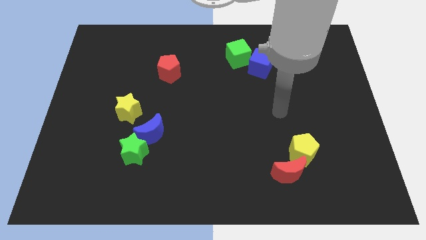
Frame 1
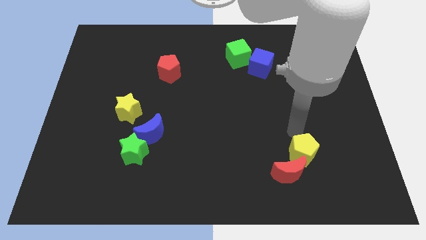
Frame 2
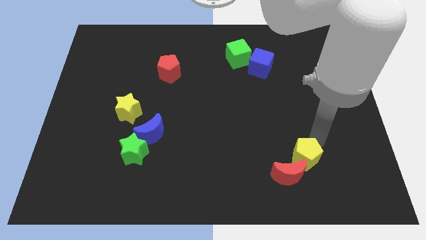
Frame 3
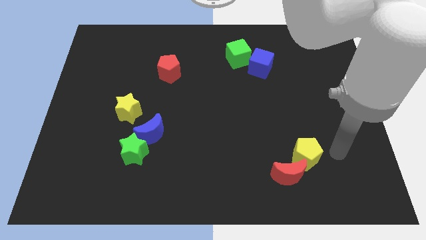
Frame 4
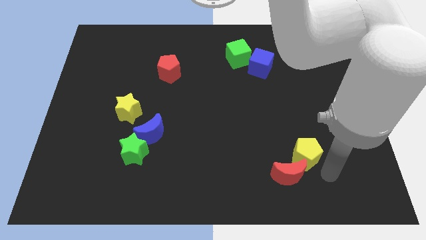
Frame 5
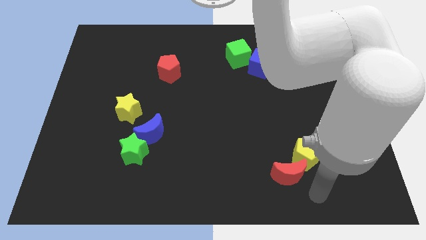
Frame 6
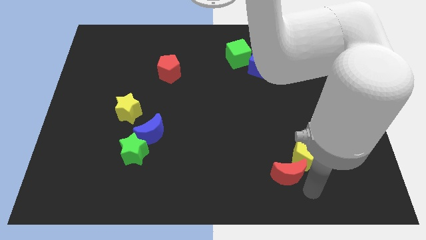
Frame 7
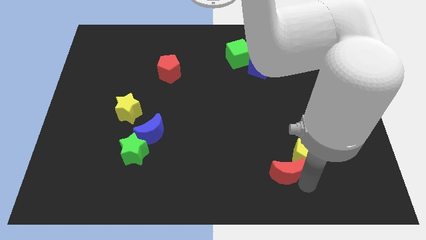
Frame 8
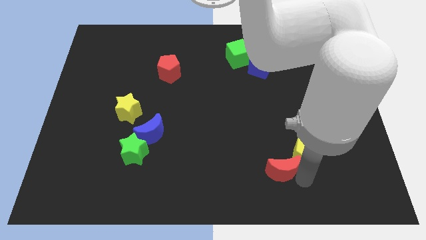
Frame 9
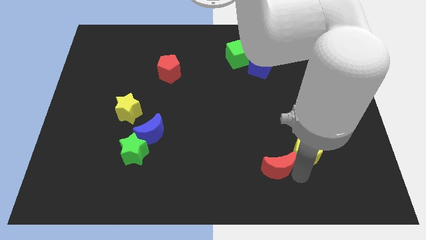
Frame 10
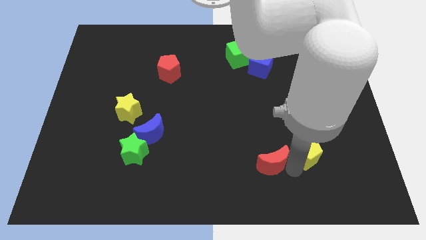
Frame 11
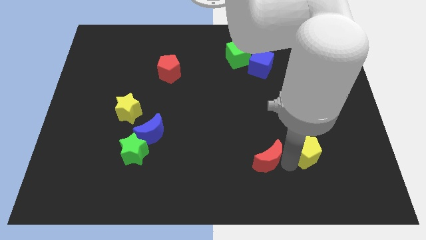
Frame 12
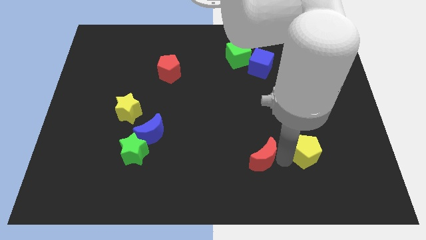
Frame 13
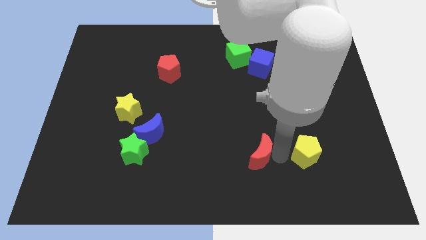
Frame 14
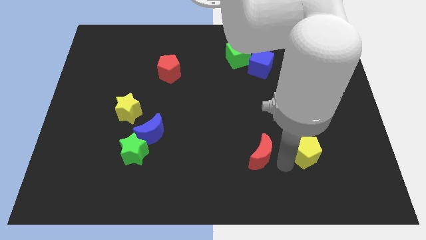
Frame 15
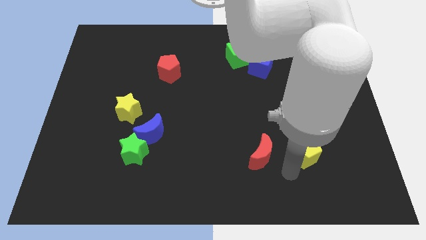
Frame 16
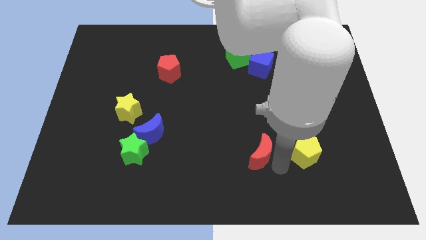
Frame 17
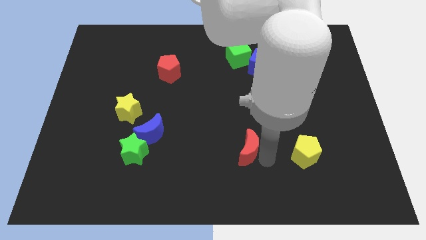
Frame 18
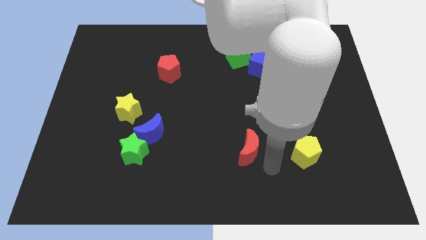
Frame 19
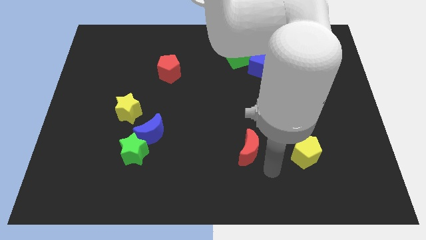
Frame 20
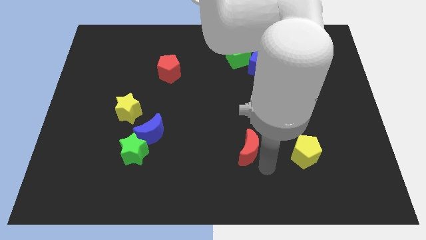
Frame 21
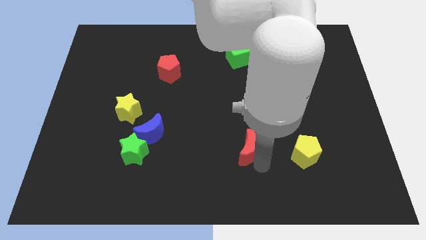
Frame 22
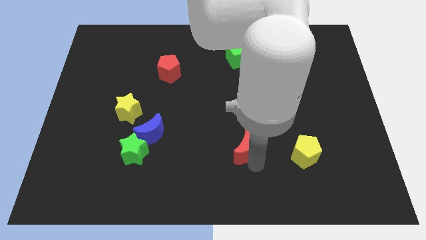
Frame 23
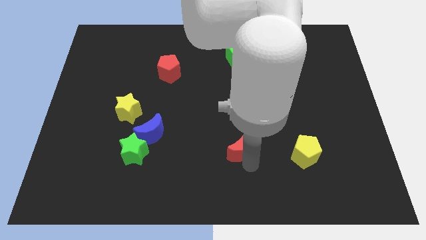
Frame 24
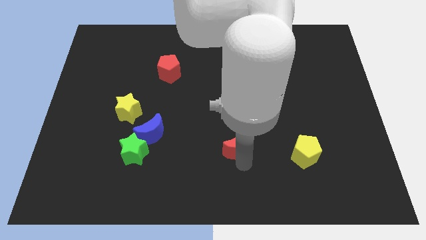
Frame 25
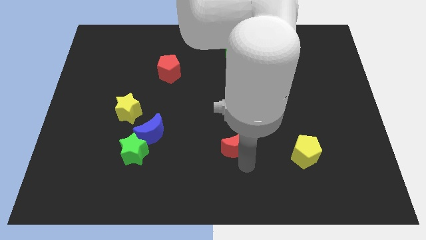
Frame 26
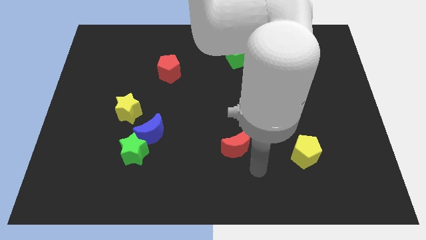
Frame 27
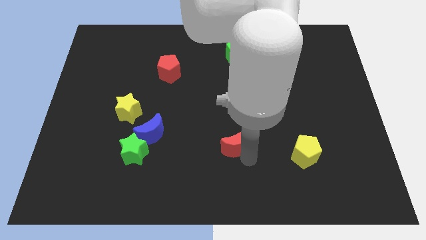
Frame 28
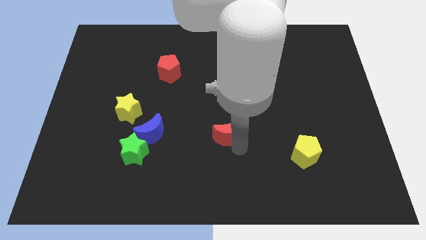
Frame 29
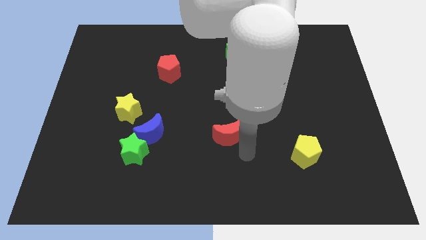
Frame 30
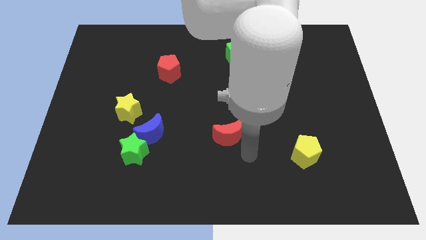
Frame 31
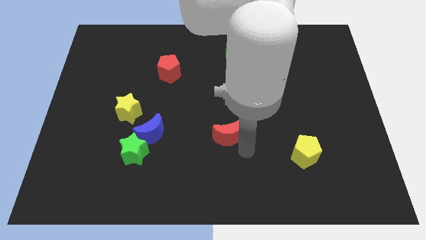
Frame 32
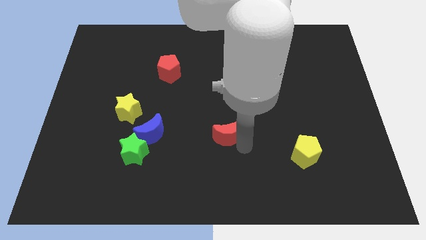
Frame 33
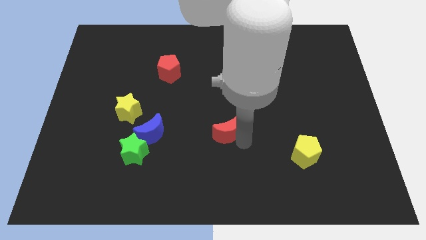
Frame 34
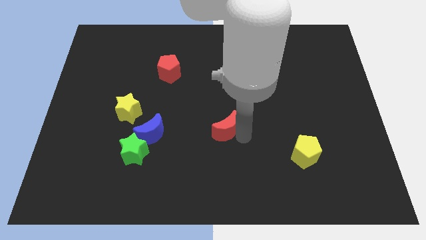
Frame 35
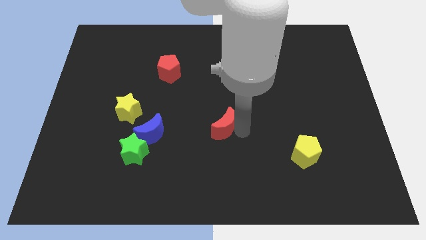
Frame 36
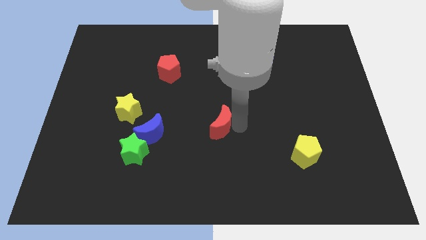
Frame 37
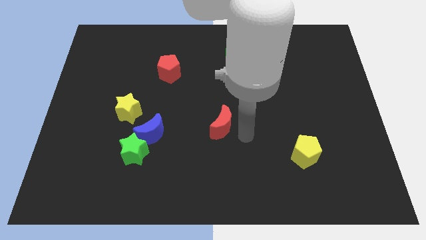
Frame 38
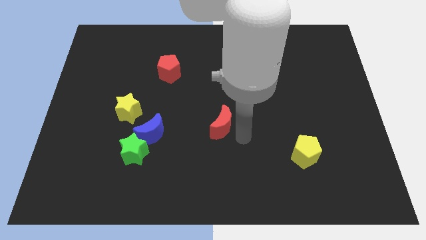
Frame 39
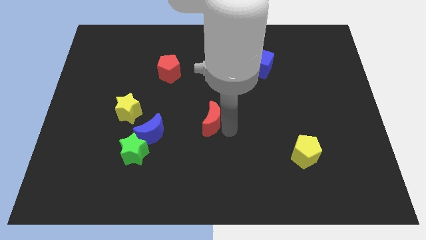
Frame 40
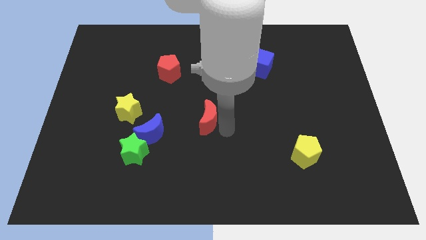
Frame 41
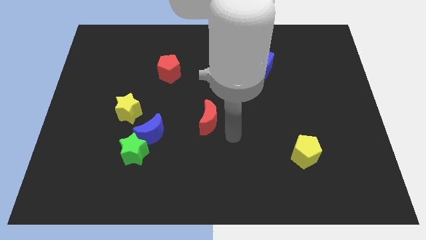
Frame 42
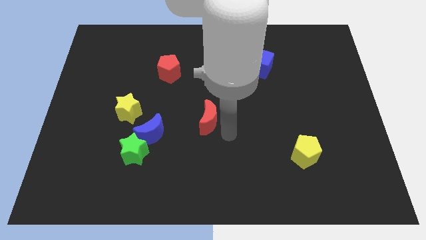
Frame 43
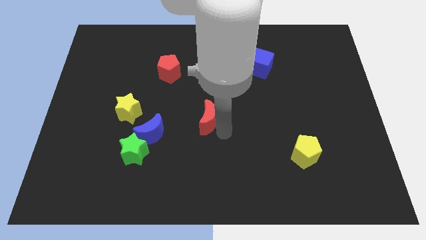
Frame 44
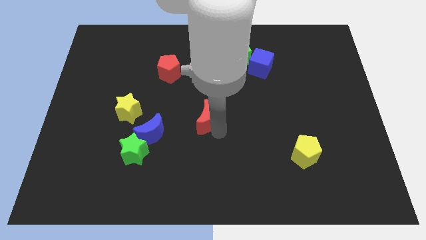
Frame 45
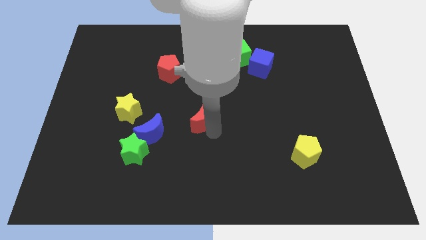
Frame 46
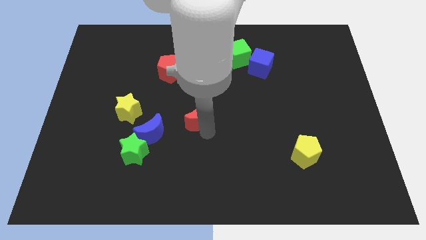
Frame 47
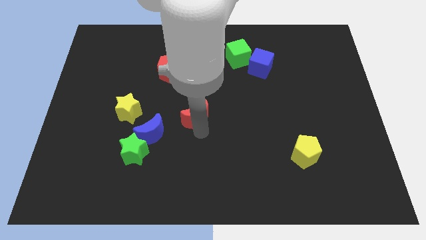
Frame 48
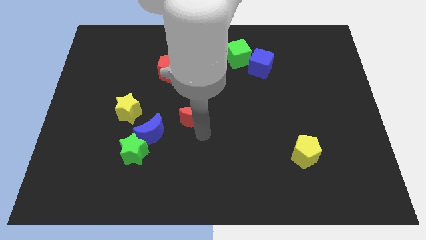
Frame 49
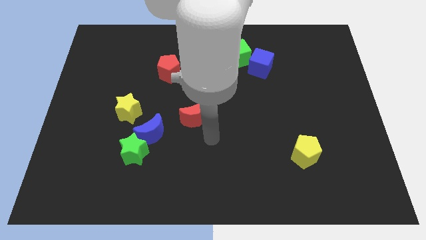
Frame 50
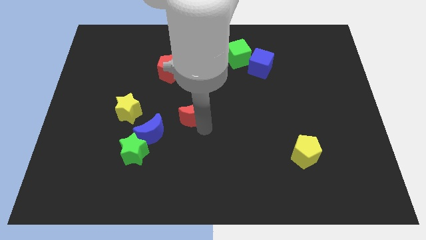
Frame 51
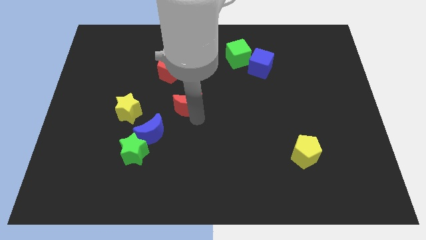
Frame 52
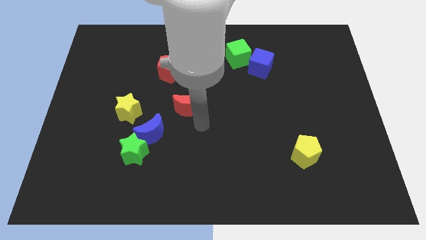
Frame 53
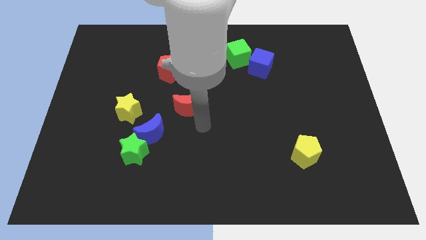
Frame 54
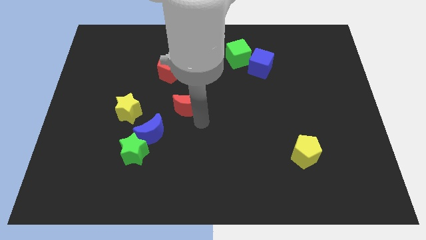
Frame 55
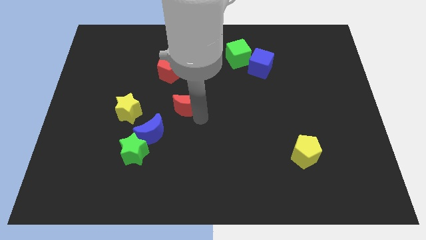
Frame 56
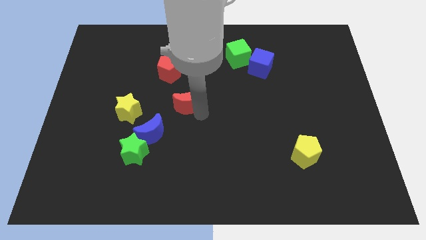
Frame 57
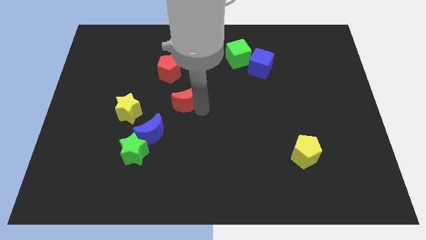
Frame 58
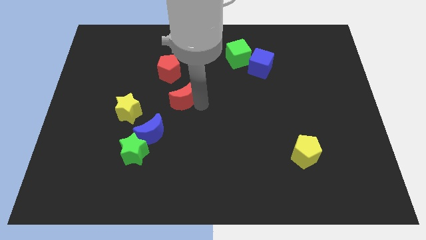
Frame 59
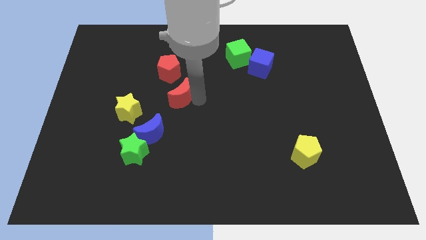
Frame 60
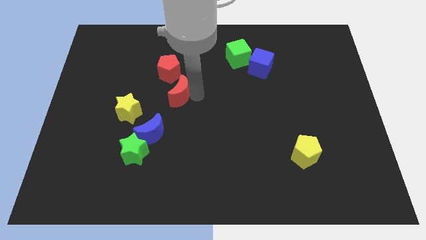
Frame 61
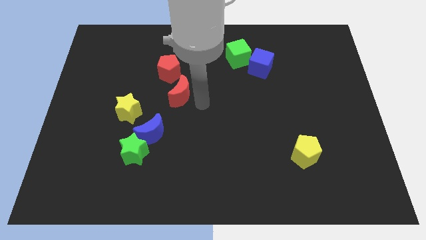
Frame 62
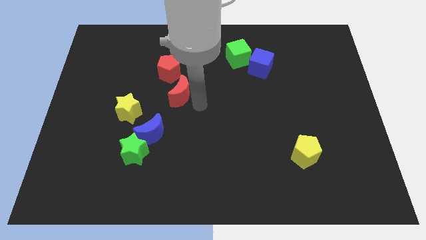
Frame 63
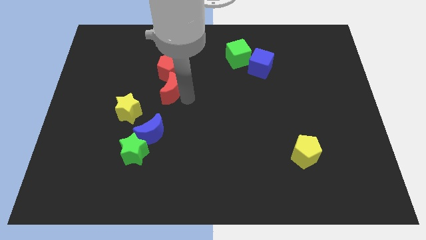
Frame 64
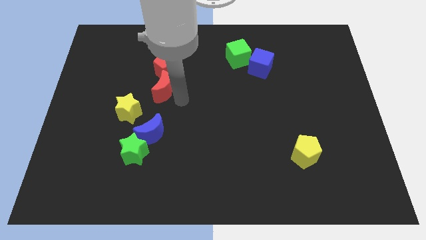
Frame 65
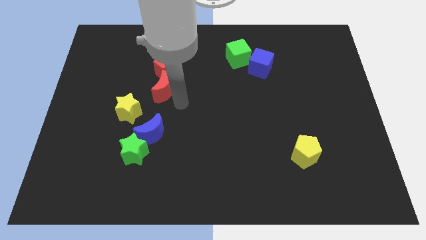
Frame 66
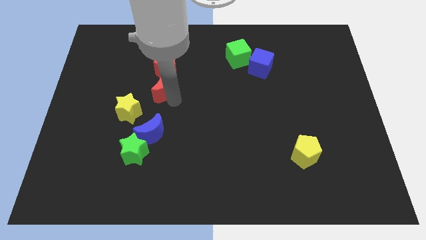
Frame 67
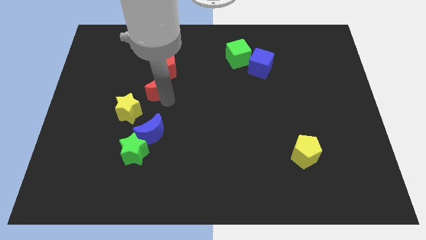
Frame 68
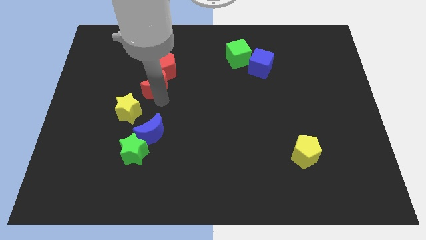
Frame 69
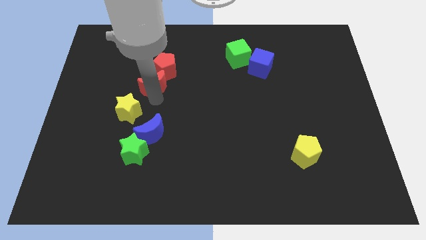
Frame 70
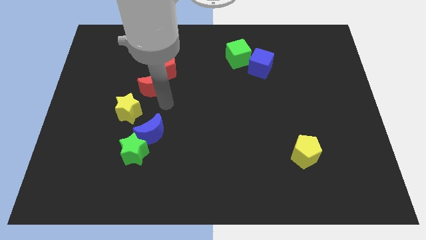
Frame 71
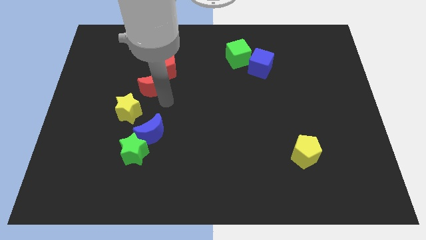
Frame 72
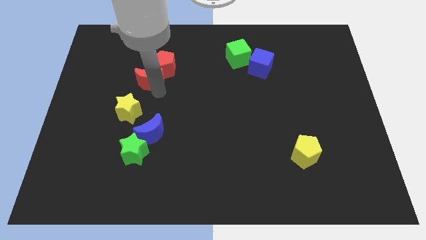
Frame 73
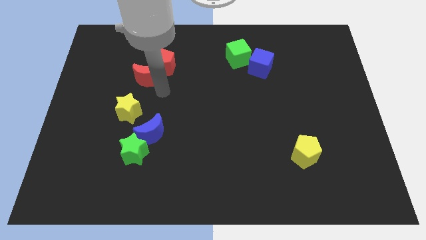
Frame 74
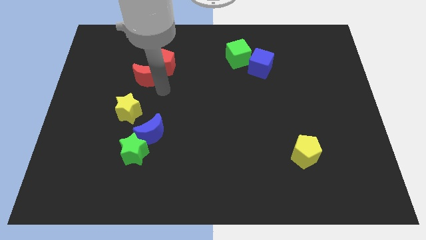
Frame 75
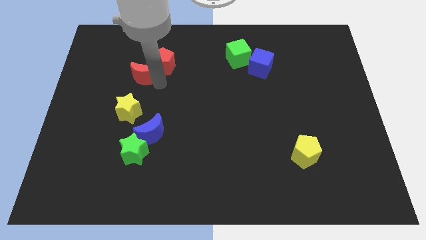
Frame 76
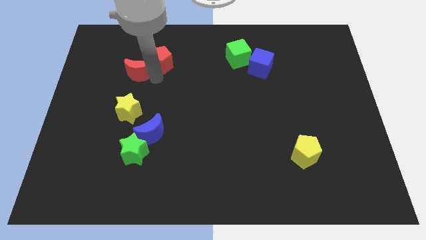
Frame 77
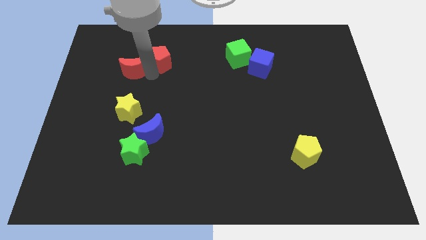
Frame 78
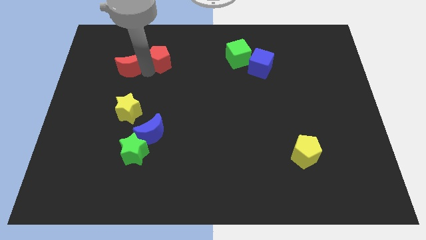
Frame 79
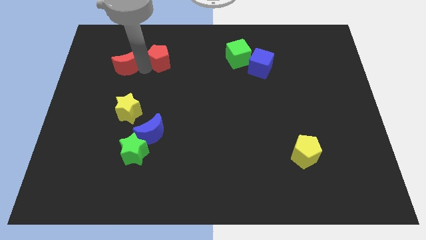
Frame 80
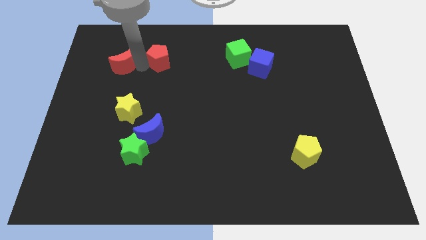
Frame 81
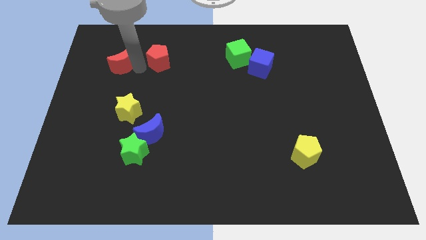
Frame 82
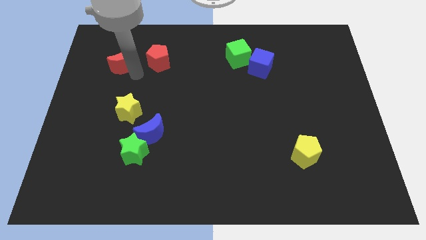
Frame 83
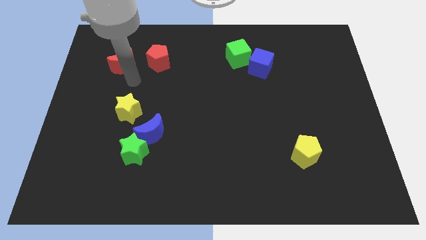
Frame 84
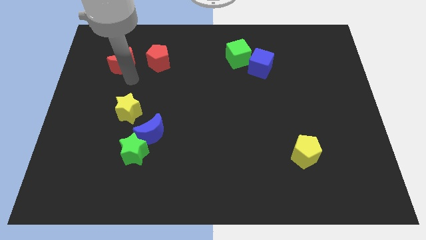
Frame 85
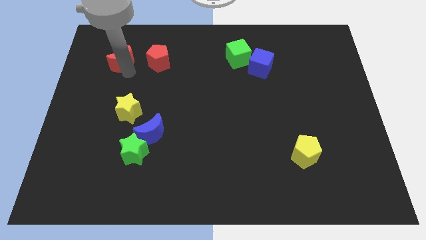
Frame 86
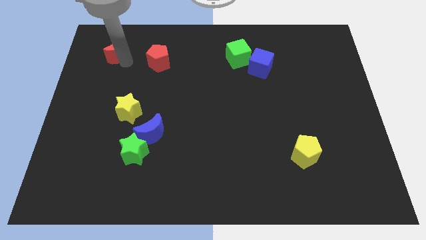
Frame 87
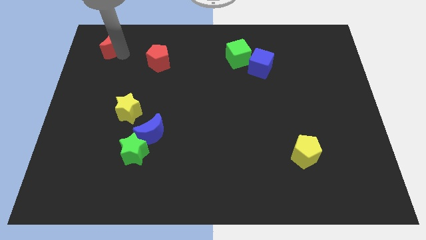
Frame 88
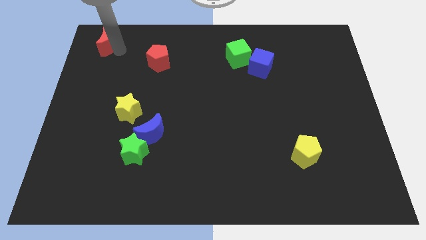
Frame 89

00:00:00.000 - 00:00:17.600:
push the red moon to the top left
